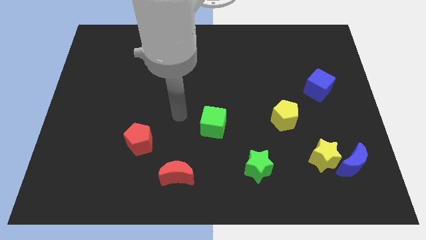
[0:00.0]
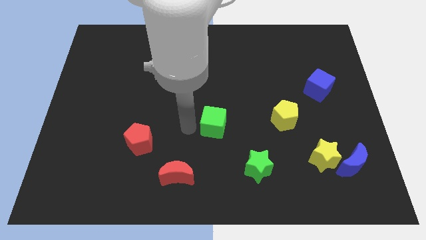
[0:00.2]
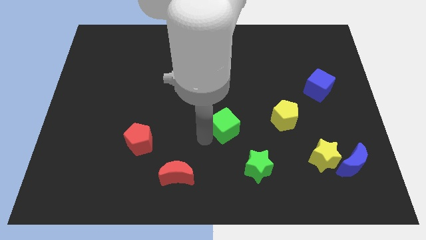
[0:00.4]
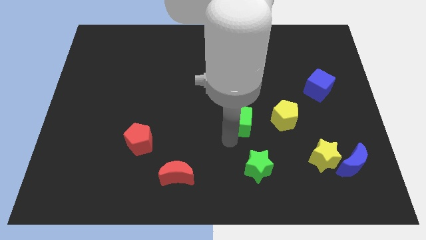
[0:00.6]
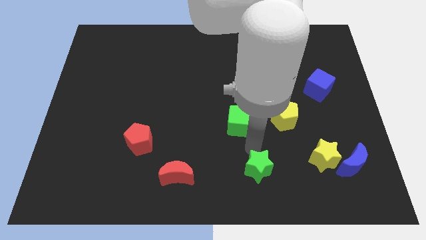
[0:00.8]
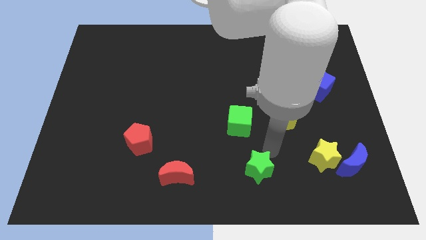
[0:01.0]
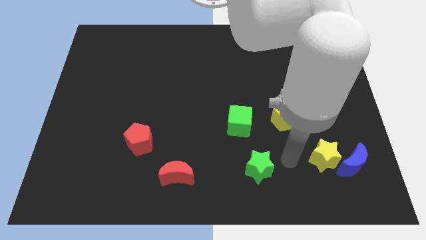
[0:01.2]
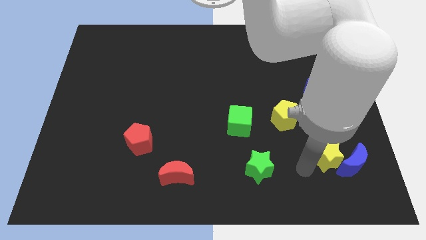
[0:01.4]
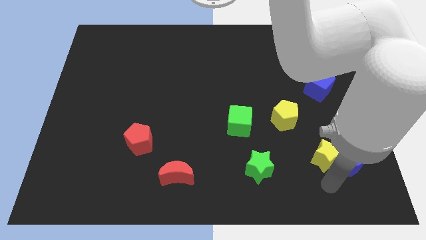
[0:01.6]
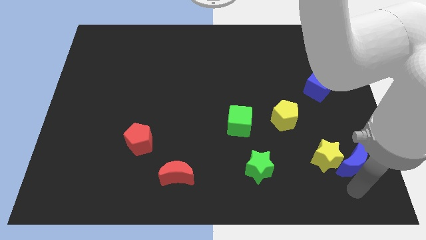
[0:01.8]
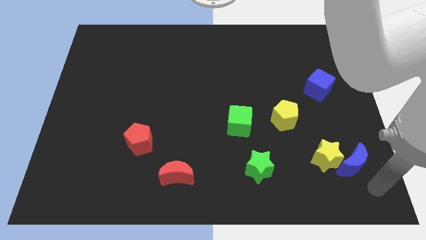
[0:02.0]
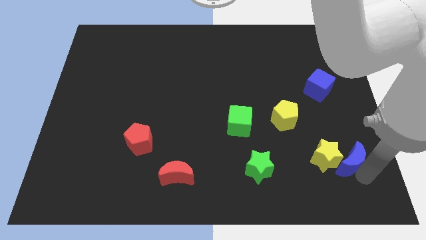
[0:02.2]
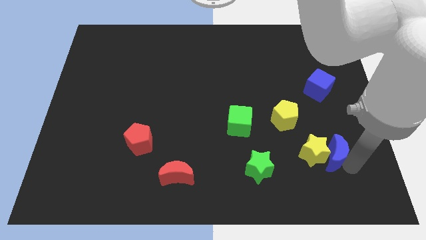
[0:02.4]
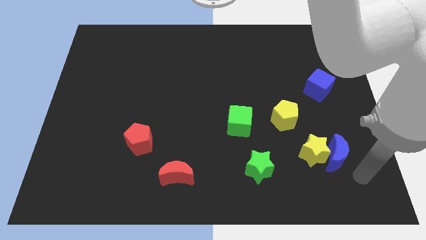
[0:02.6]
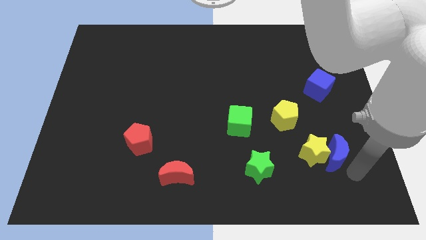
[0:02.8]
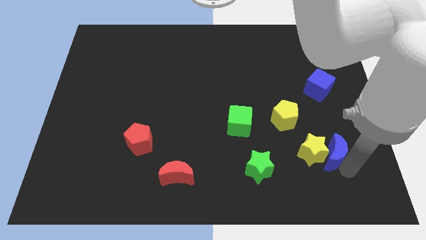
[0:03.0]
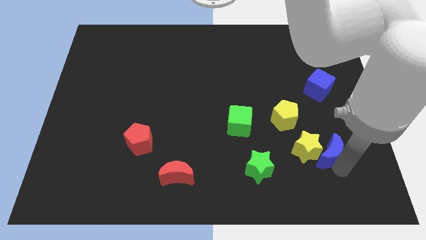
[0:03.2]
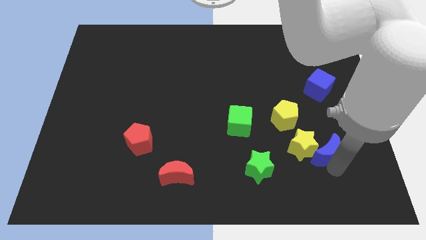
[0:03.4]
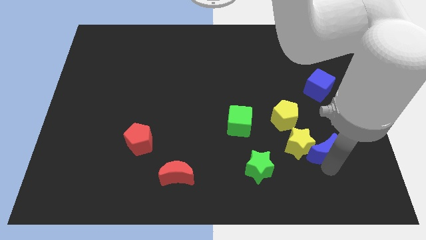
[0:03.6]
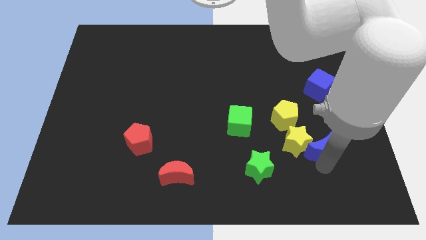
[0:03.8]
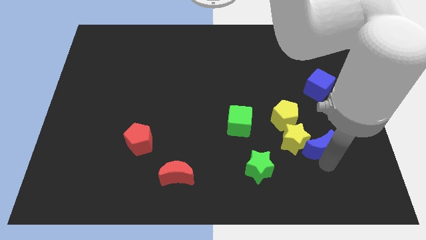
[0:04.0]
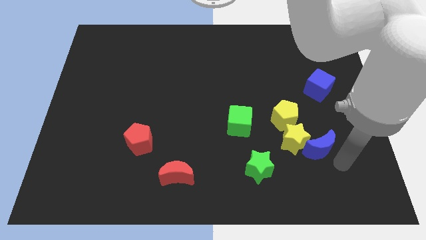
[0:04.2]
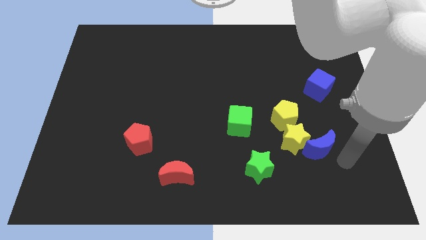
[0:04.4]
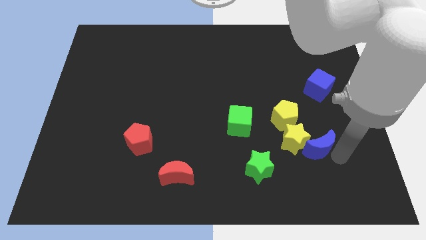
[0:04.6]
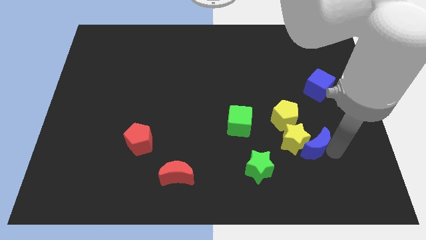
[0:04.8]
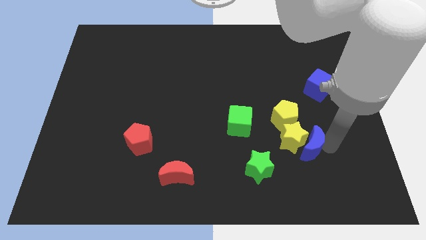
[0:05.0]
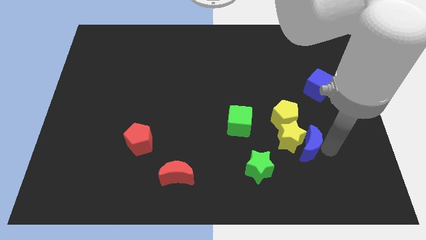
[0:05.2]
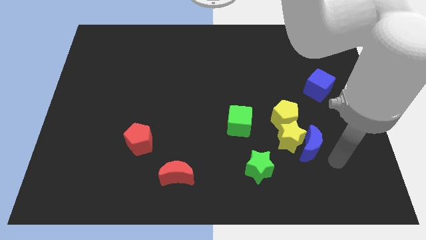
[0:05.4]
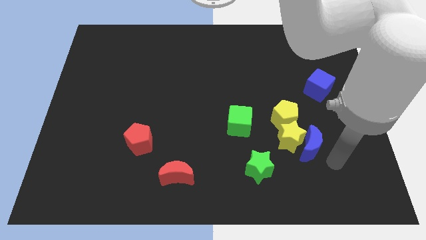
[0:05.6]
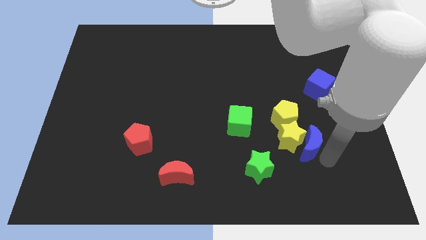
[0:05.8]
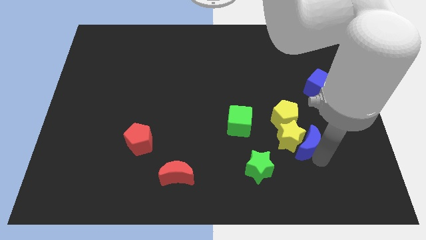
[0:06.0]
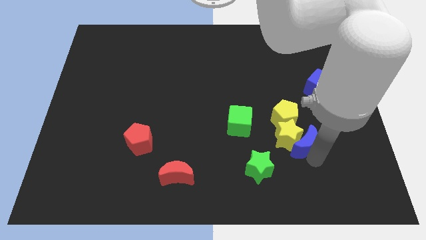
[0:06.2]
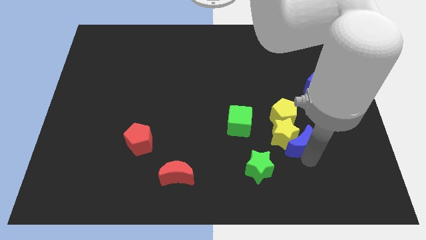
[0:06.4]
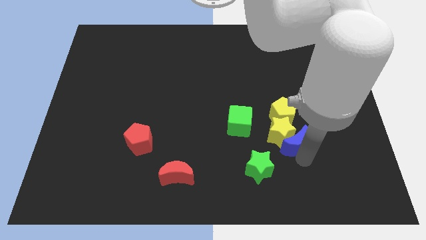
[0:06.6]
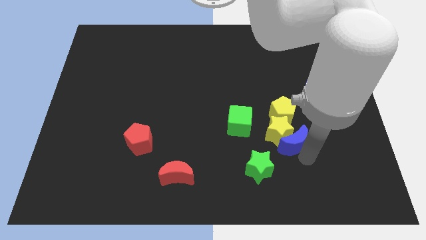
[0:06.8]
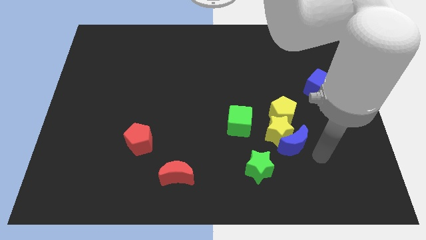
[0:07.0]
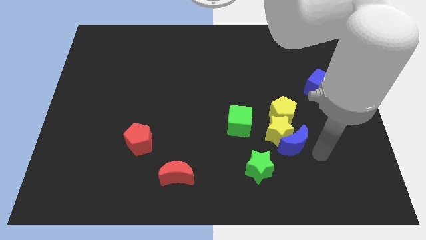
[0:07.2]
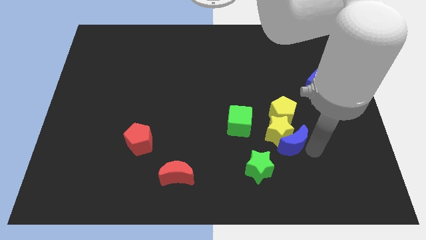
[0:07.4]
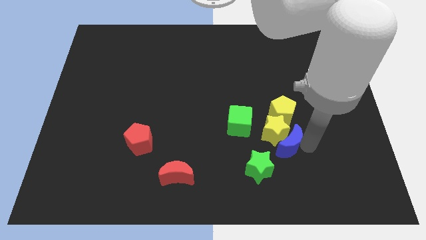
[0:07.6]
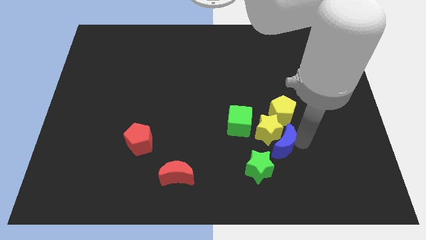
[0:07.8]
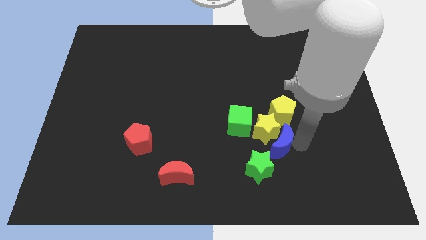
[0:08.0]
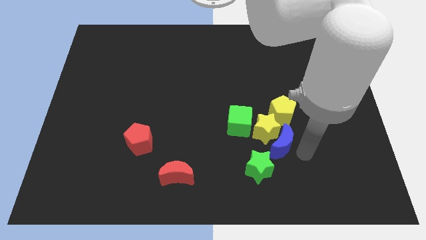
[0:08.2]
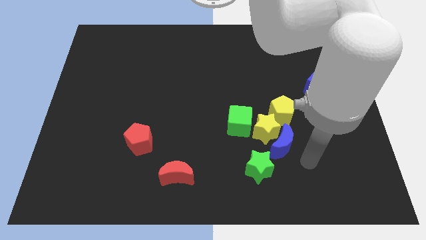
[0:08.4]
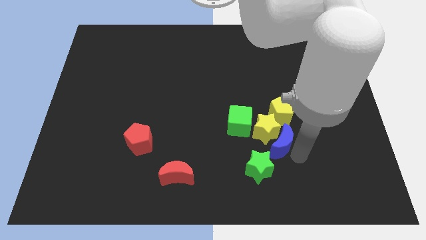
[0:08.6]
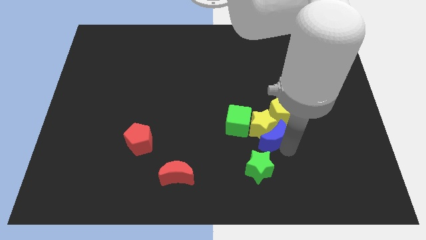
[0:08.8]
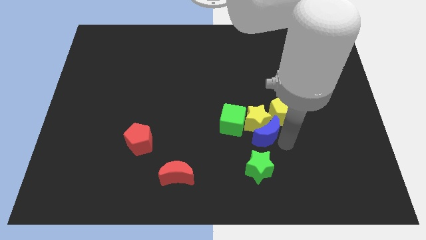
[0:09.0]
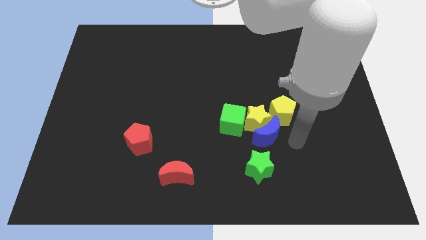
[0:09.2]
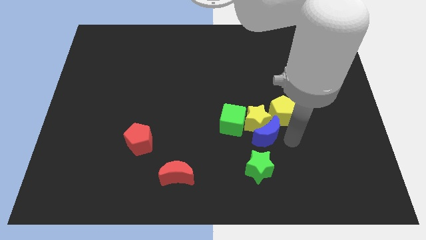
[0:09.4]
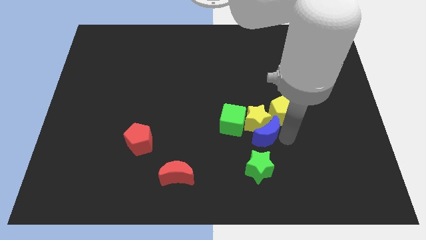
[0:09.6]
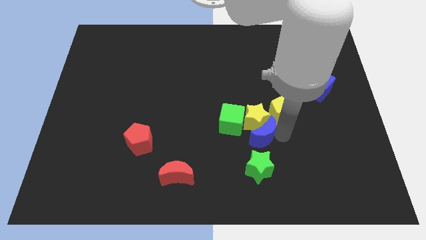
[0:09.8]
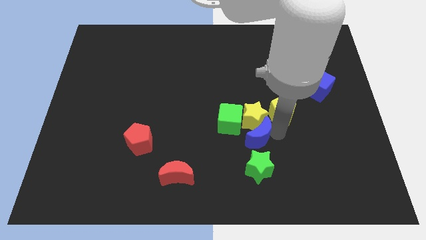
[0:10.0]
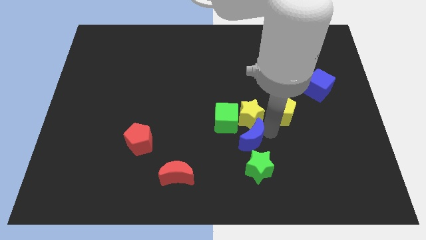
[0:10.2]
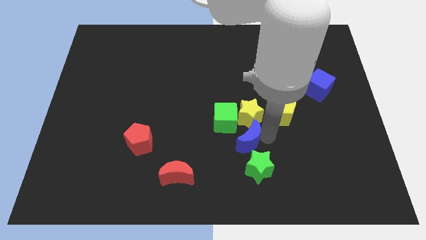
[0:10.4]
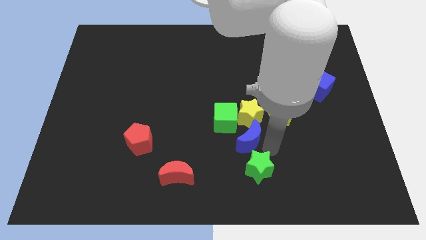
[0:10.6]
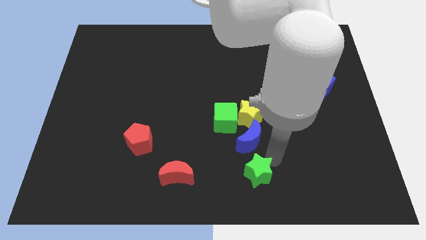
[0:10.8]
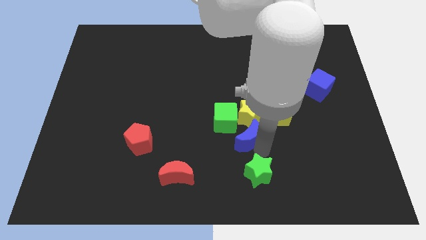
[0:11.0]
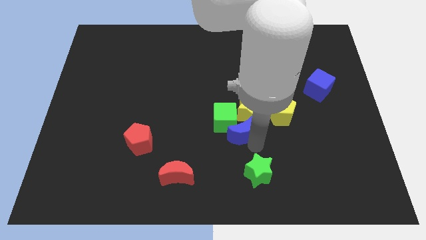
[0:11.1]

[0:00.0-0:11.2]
move the blue moon to the green cube
